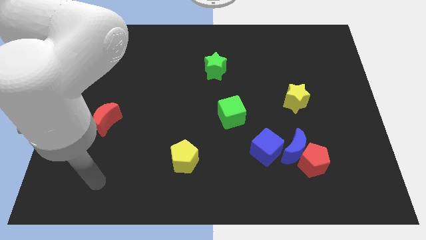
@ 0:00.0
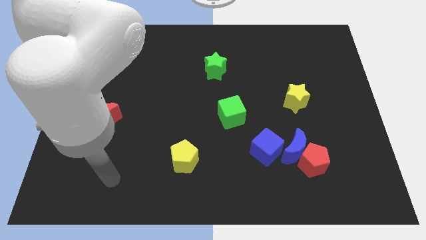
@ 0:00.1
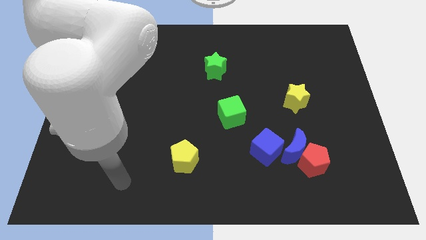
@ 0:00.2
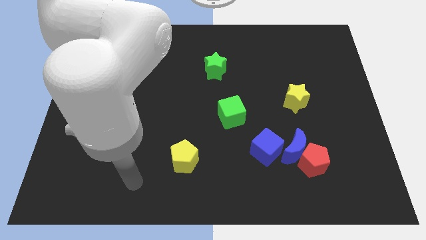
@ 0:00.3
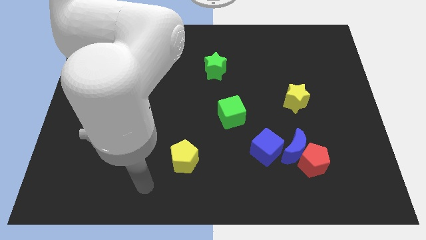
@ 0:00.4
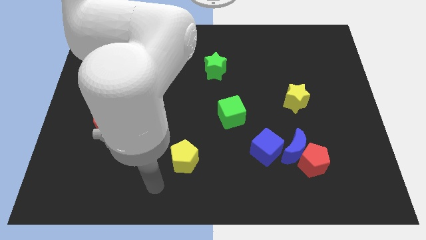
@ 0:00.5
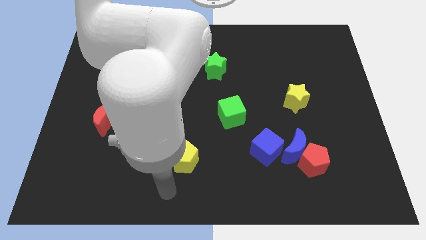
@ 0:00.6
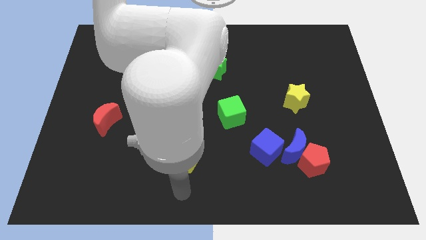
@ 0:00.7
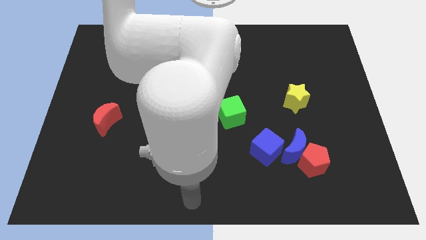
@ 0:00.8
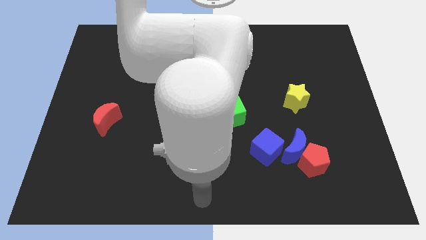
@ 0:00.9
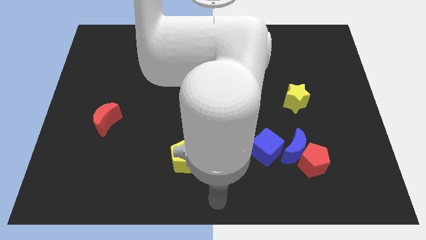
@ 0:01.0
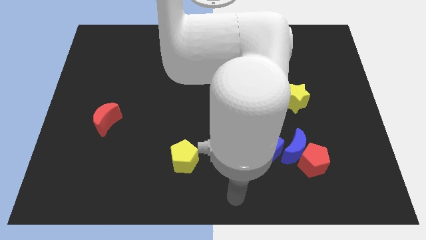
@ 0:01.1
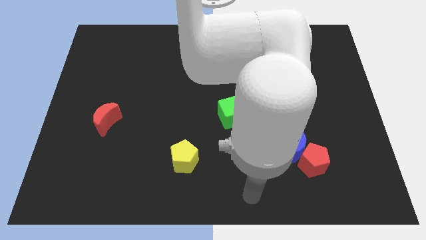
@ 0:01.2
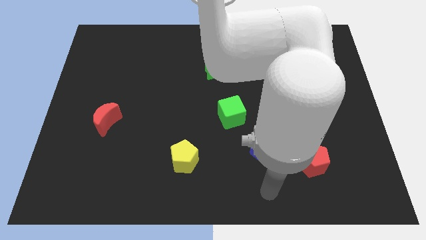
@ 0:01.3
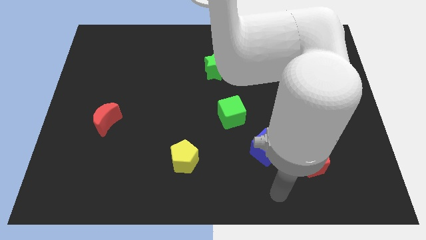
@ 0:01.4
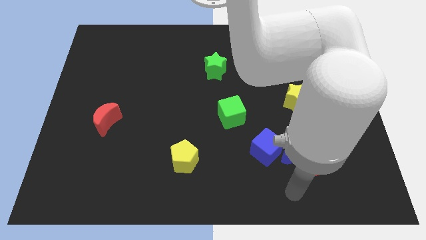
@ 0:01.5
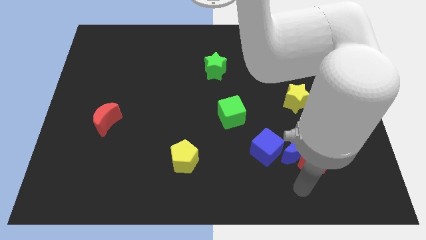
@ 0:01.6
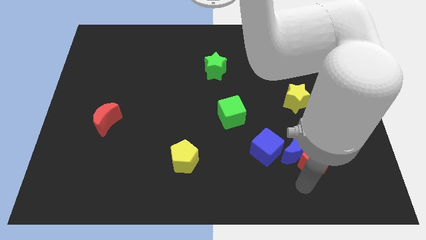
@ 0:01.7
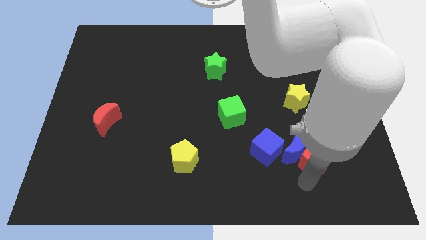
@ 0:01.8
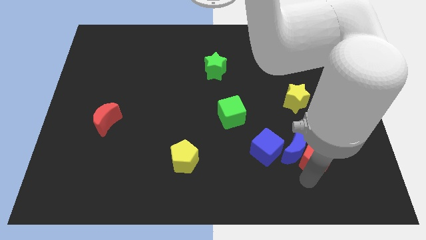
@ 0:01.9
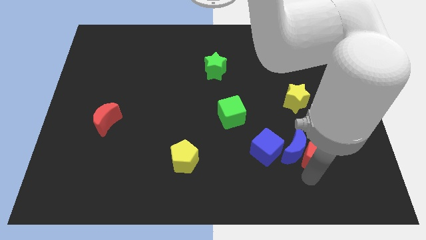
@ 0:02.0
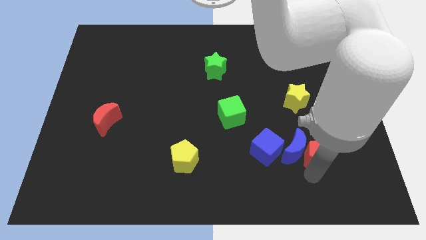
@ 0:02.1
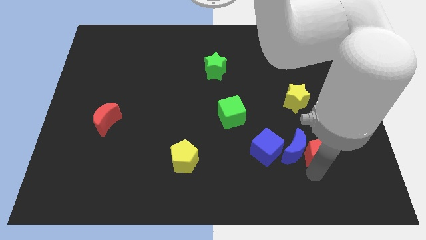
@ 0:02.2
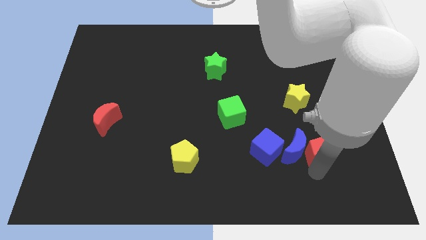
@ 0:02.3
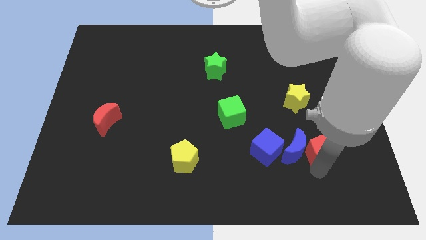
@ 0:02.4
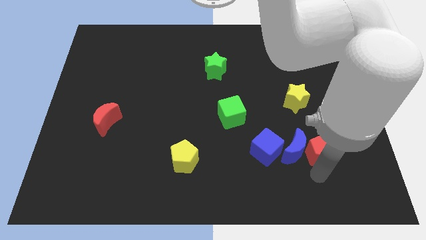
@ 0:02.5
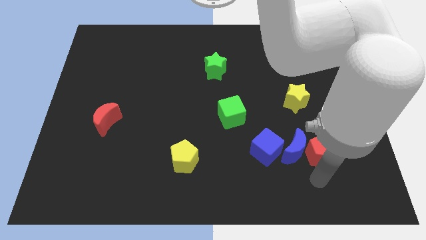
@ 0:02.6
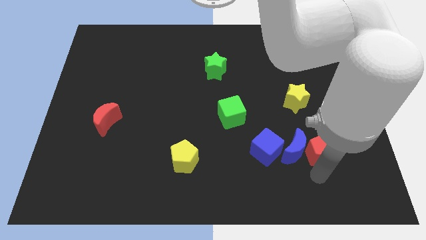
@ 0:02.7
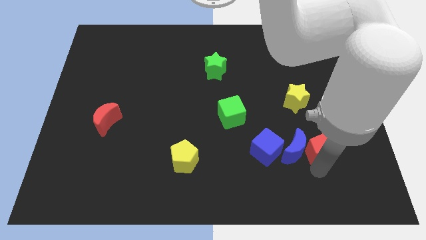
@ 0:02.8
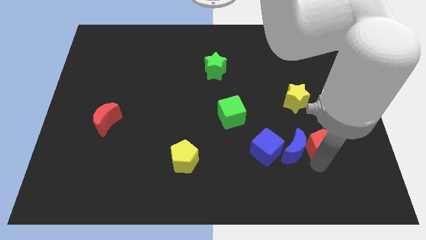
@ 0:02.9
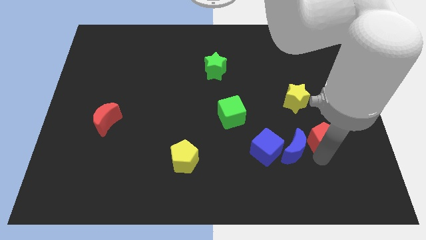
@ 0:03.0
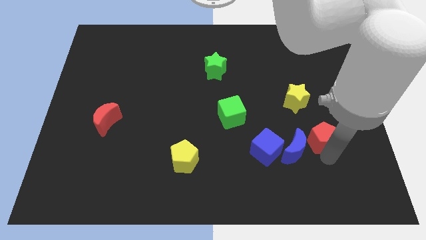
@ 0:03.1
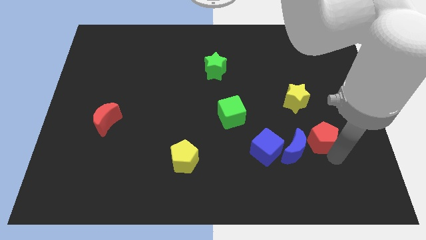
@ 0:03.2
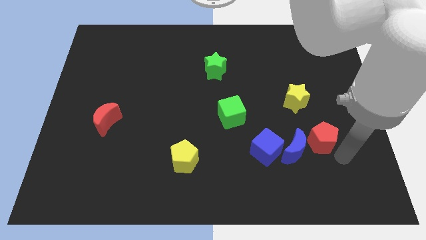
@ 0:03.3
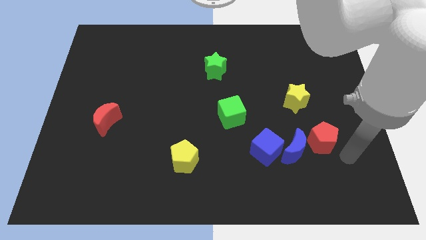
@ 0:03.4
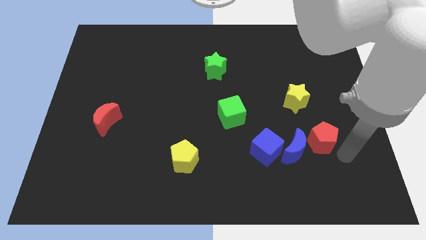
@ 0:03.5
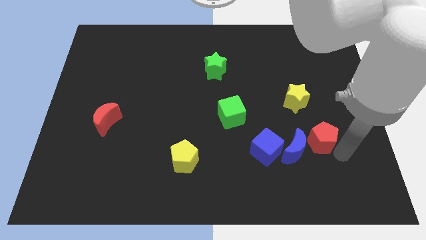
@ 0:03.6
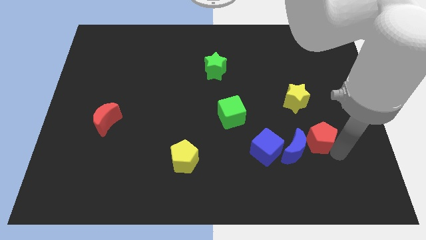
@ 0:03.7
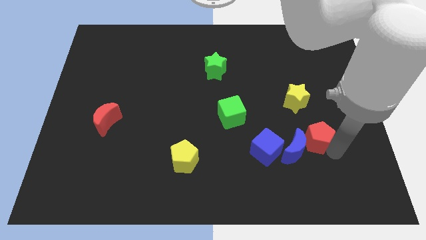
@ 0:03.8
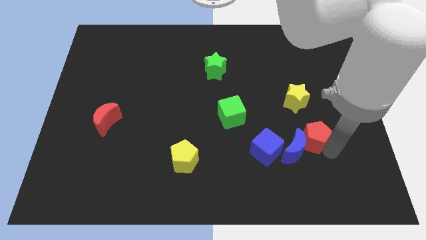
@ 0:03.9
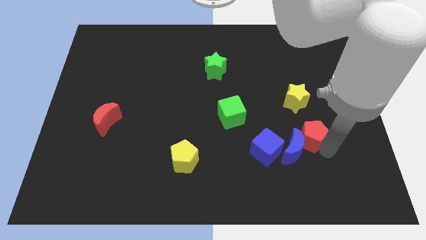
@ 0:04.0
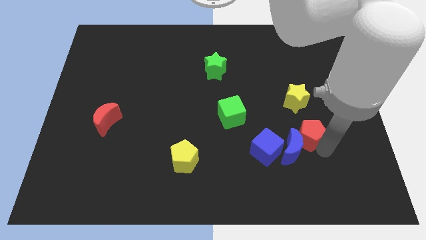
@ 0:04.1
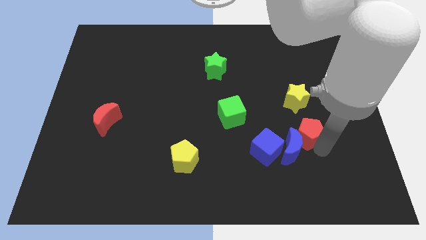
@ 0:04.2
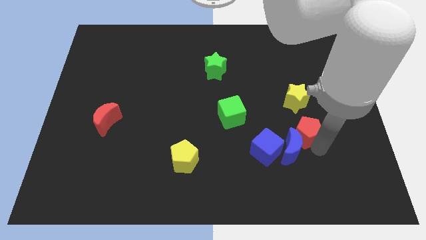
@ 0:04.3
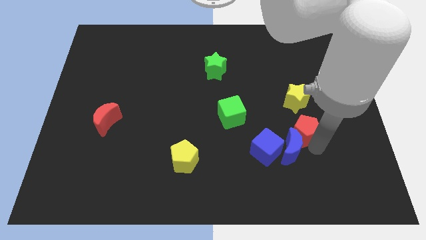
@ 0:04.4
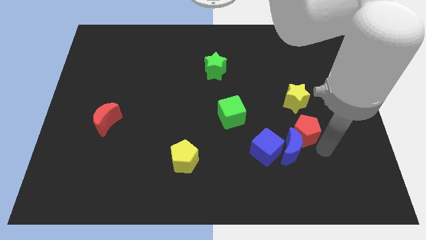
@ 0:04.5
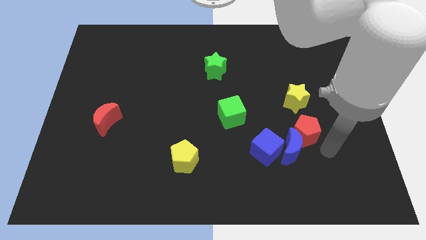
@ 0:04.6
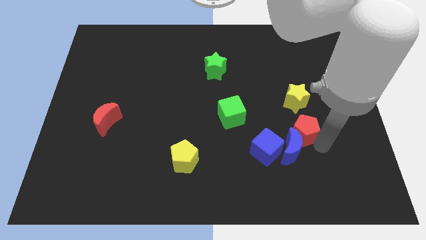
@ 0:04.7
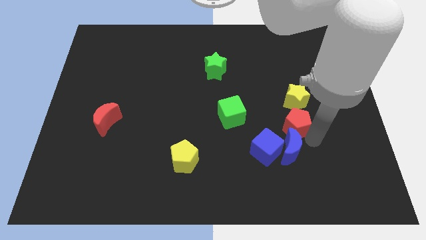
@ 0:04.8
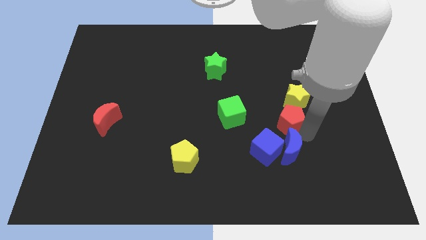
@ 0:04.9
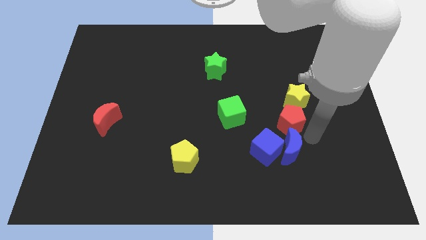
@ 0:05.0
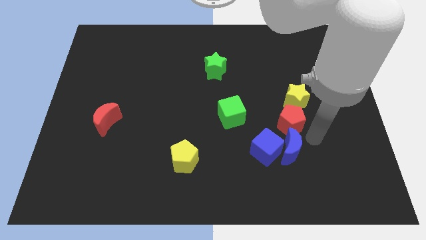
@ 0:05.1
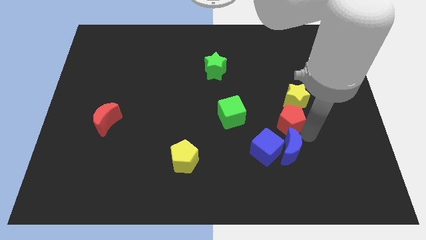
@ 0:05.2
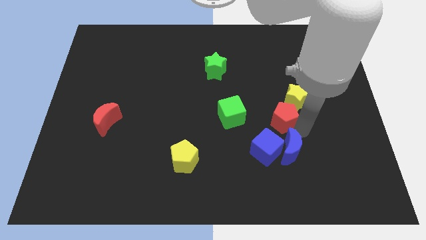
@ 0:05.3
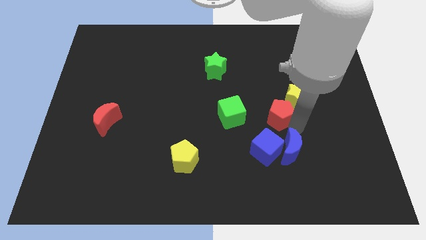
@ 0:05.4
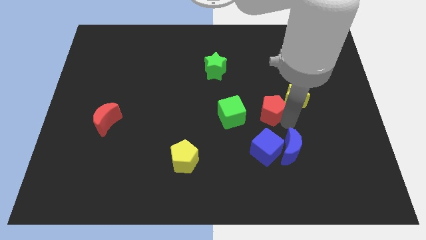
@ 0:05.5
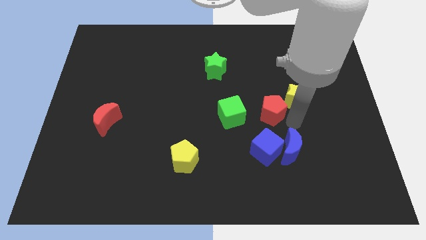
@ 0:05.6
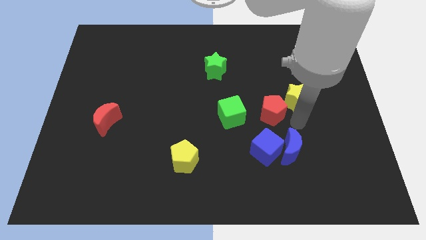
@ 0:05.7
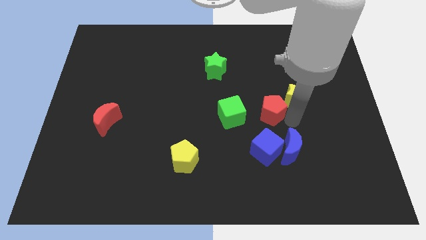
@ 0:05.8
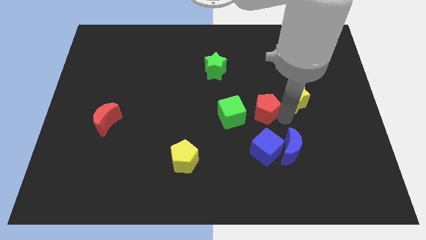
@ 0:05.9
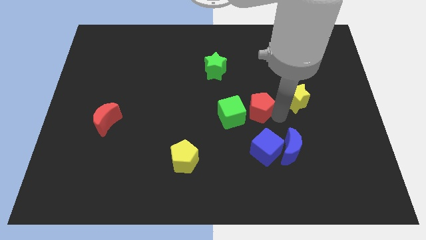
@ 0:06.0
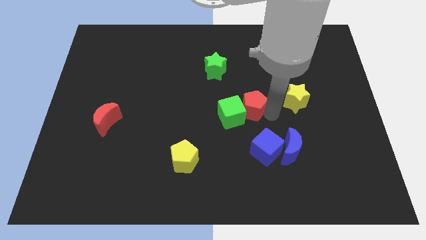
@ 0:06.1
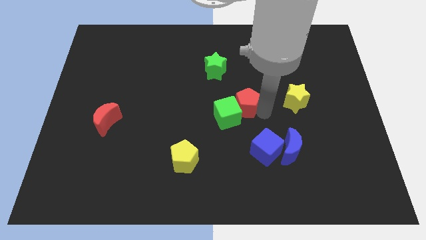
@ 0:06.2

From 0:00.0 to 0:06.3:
move the red pentagon up and then left

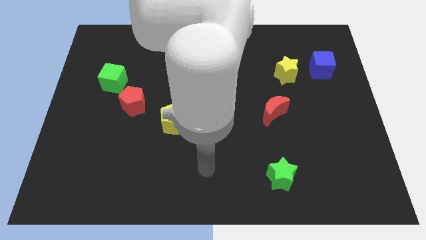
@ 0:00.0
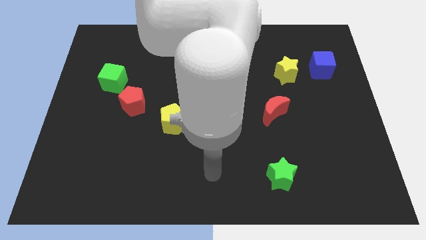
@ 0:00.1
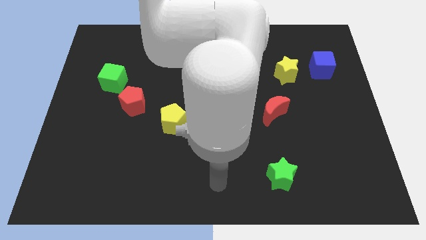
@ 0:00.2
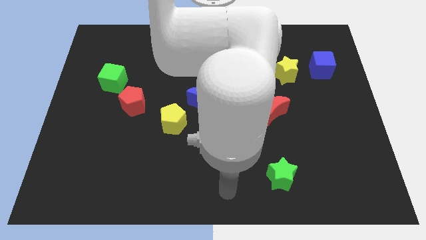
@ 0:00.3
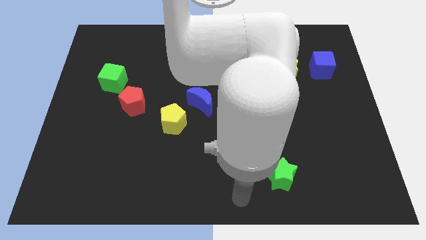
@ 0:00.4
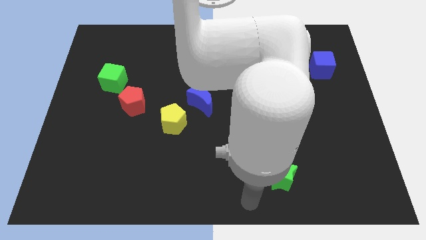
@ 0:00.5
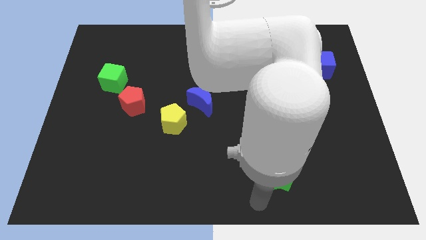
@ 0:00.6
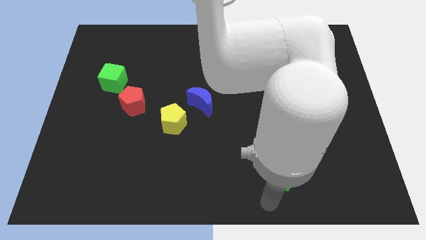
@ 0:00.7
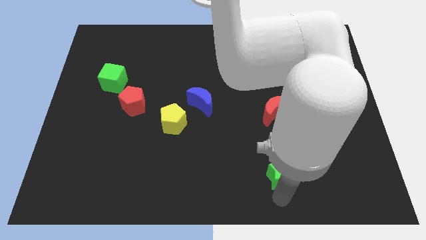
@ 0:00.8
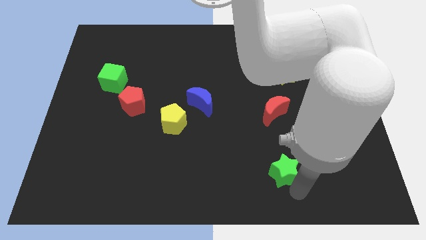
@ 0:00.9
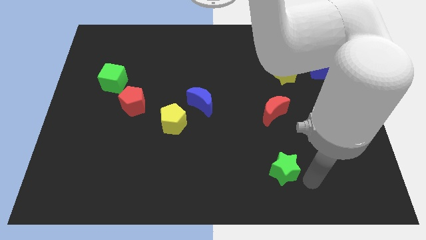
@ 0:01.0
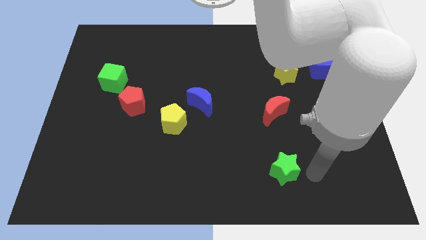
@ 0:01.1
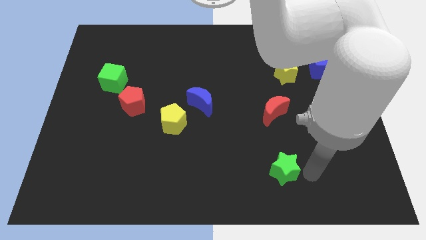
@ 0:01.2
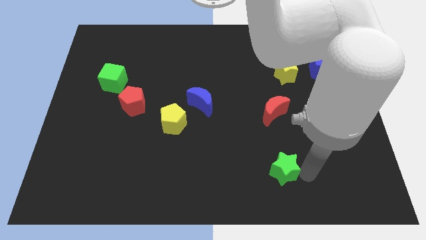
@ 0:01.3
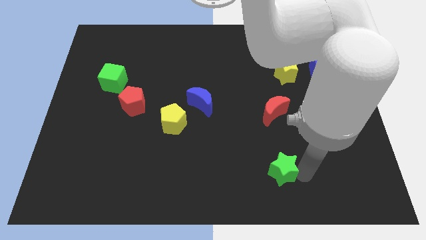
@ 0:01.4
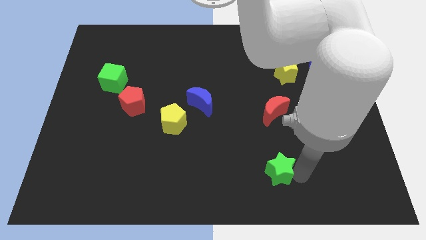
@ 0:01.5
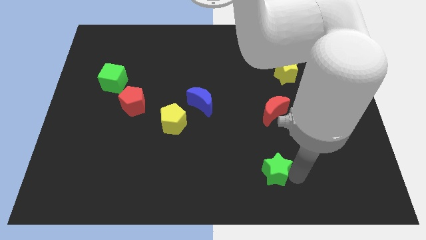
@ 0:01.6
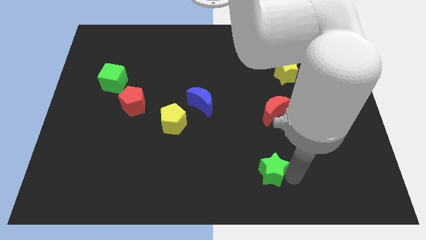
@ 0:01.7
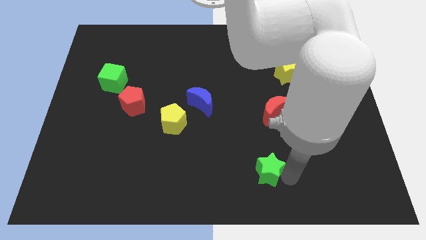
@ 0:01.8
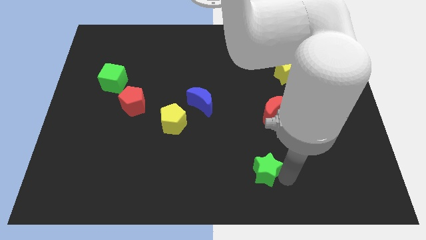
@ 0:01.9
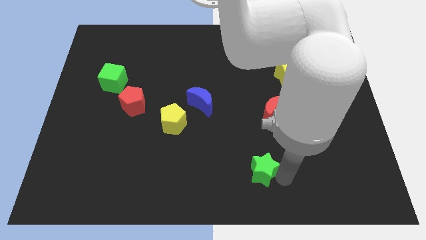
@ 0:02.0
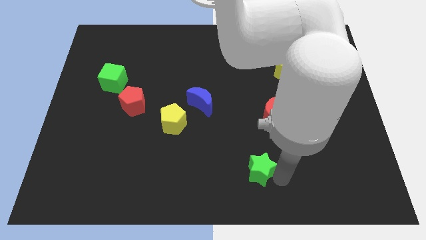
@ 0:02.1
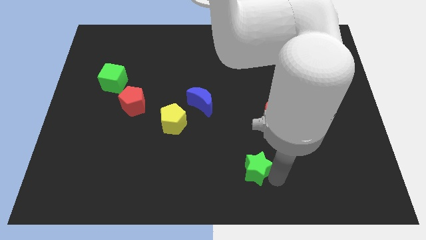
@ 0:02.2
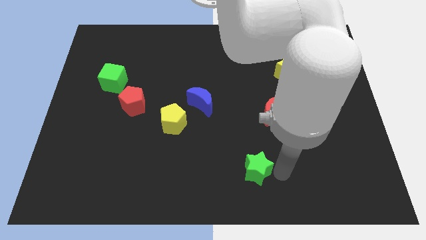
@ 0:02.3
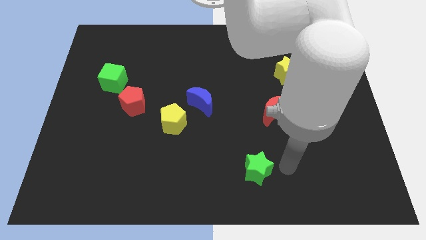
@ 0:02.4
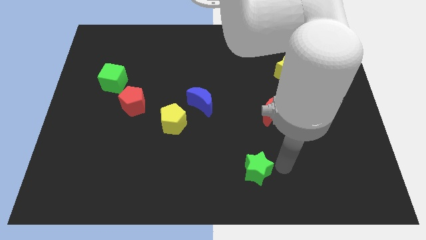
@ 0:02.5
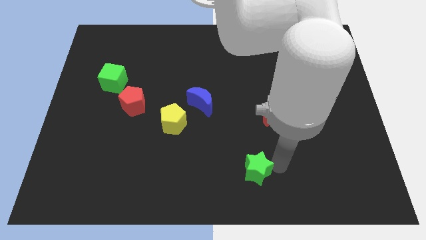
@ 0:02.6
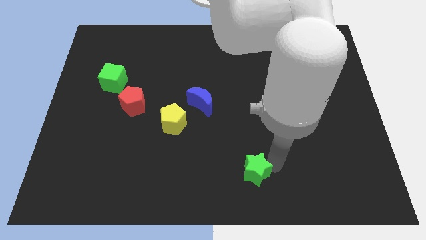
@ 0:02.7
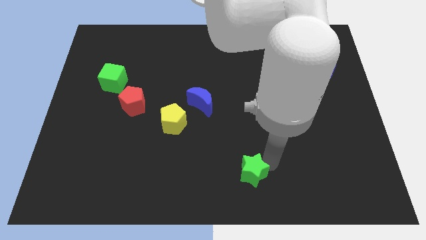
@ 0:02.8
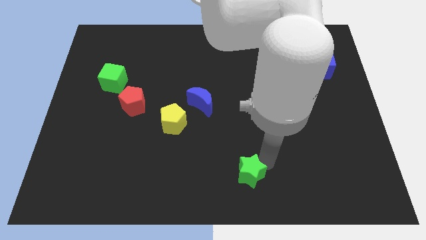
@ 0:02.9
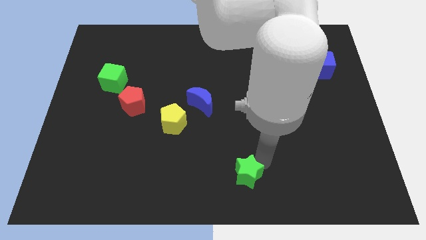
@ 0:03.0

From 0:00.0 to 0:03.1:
slightly slide the green star to the left
